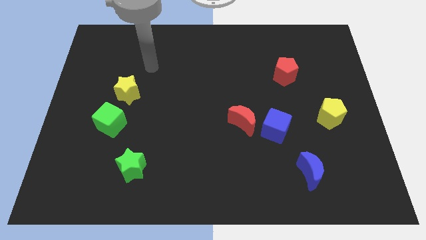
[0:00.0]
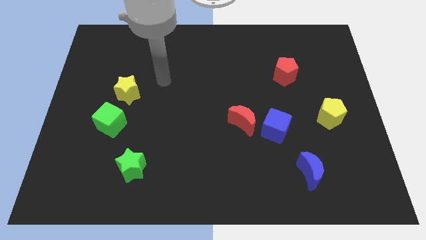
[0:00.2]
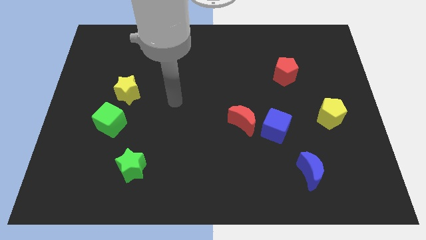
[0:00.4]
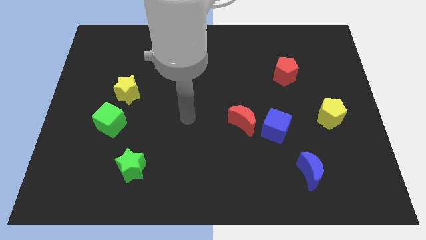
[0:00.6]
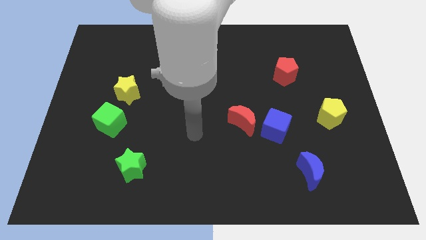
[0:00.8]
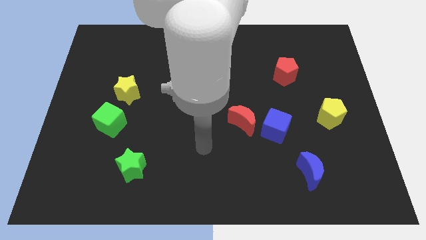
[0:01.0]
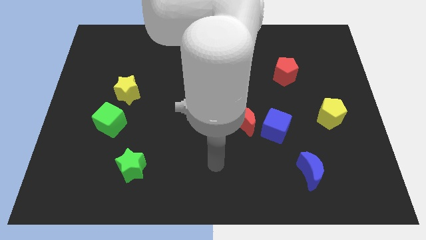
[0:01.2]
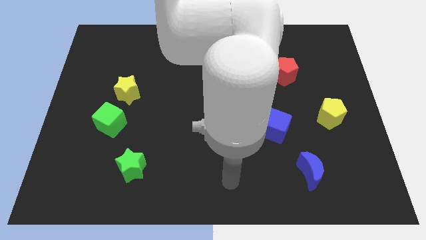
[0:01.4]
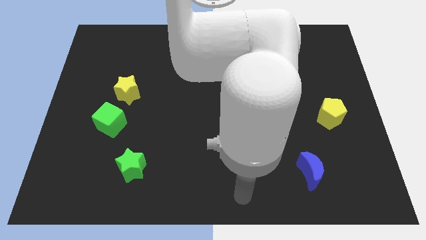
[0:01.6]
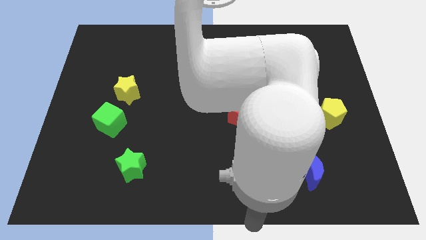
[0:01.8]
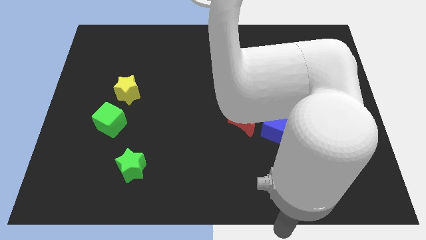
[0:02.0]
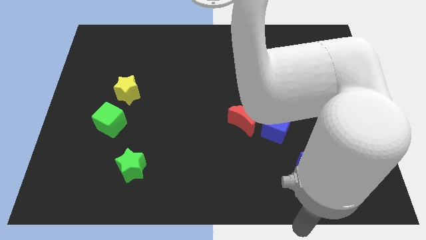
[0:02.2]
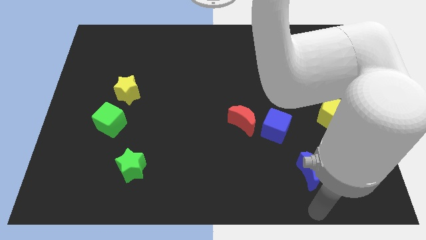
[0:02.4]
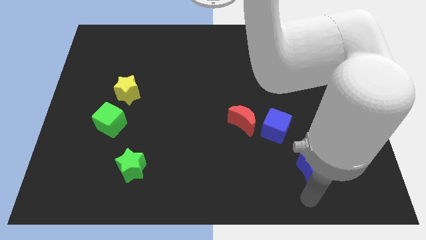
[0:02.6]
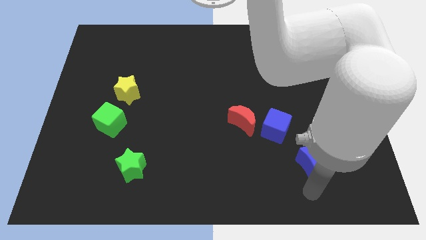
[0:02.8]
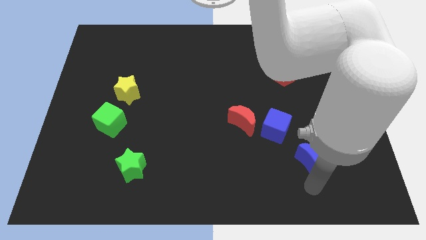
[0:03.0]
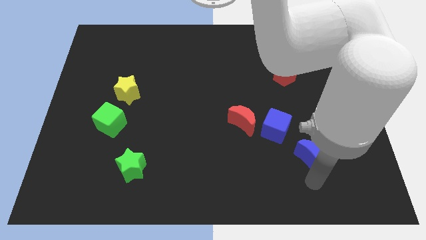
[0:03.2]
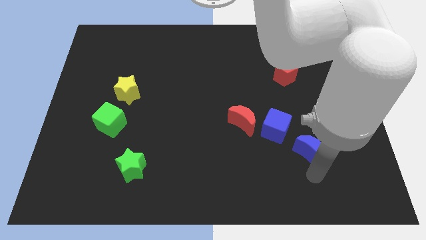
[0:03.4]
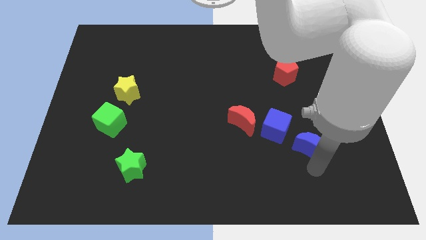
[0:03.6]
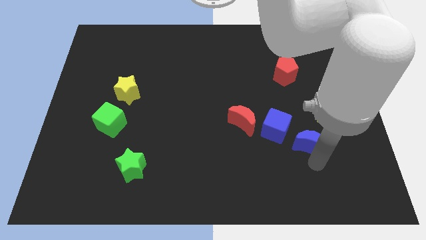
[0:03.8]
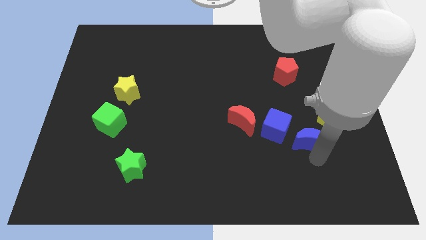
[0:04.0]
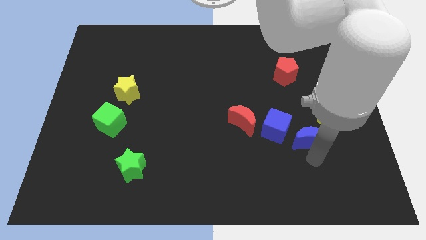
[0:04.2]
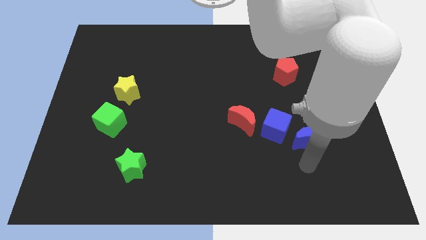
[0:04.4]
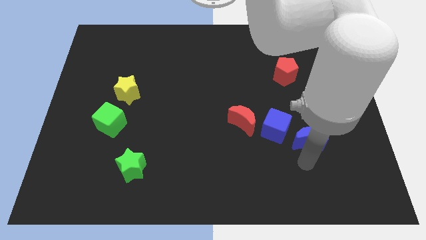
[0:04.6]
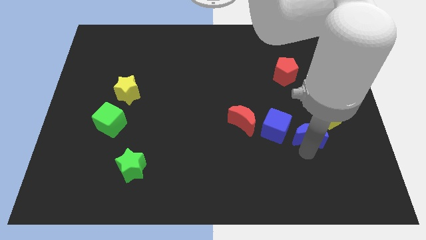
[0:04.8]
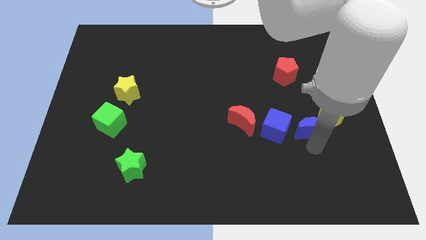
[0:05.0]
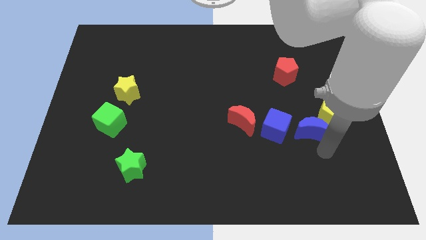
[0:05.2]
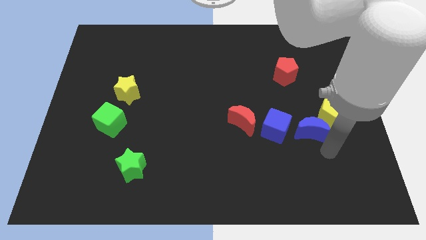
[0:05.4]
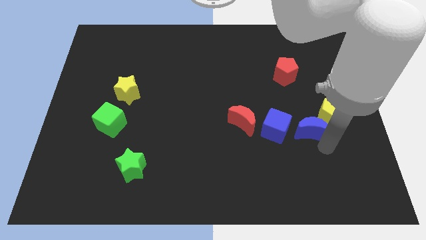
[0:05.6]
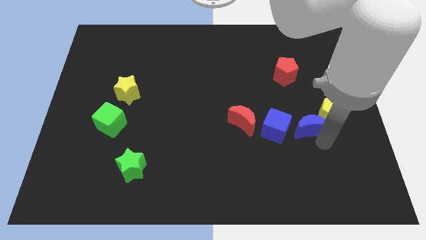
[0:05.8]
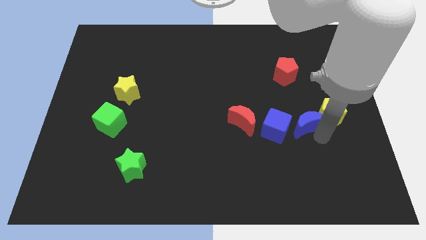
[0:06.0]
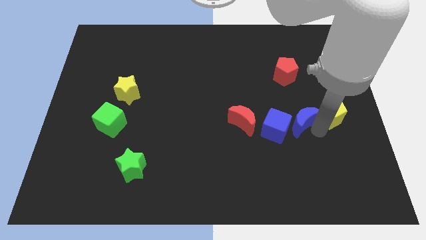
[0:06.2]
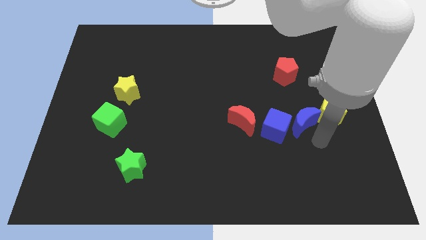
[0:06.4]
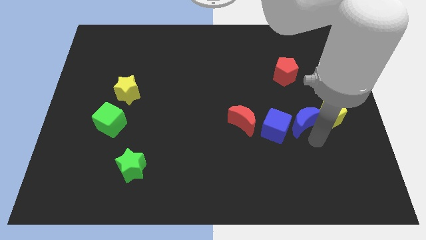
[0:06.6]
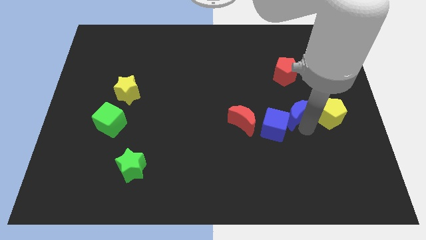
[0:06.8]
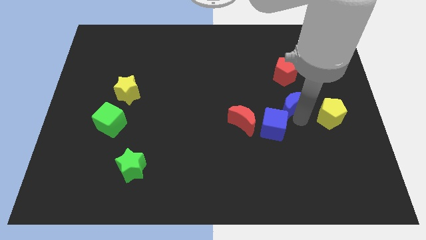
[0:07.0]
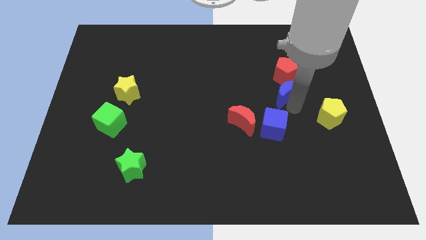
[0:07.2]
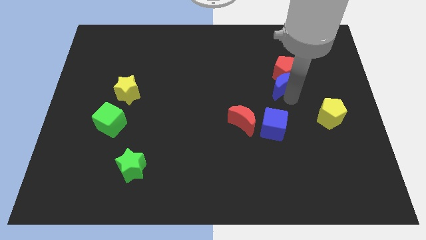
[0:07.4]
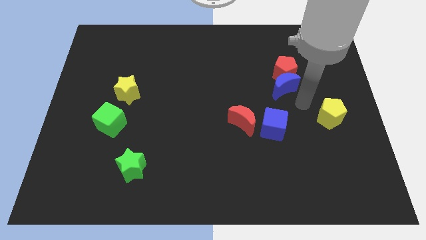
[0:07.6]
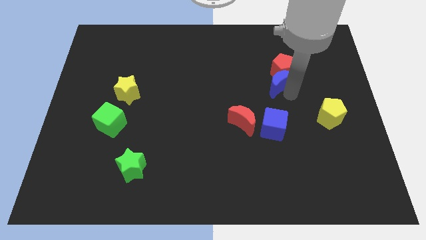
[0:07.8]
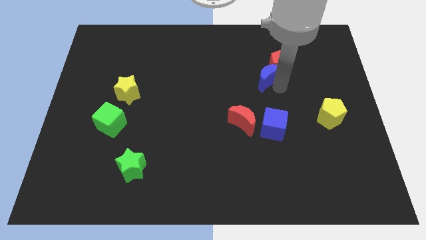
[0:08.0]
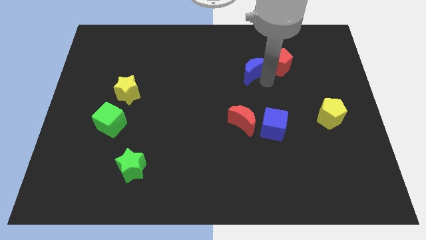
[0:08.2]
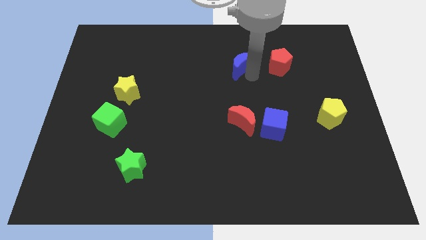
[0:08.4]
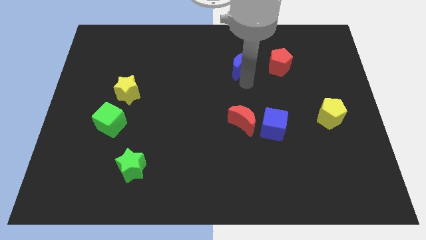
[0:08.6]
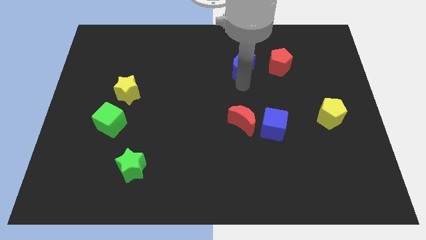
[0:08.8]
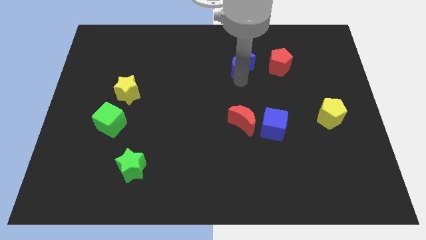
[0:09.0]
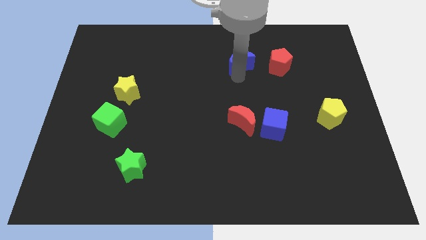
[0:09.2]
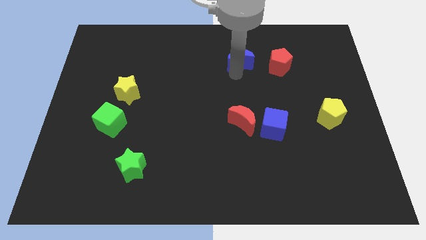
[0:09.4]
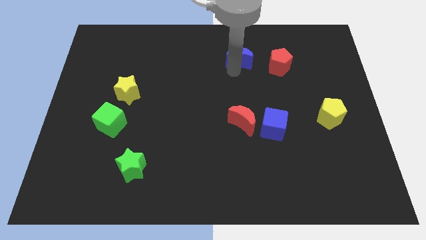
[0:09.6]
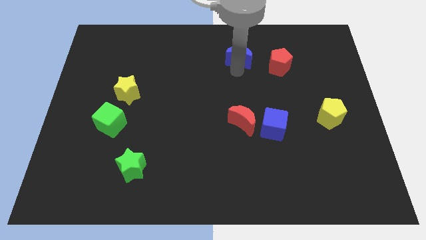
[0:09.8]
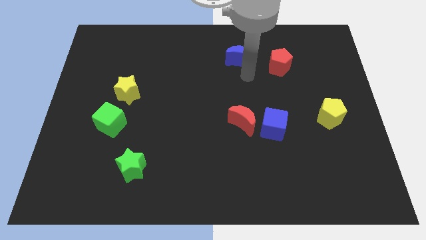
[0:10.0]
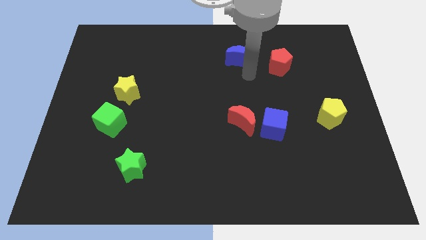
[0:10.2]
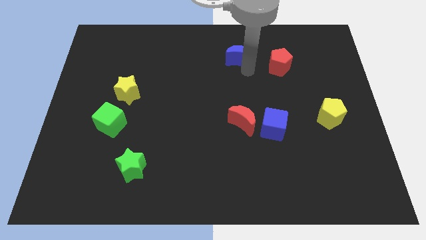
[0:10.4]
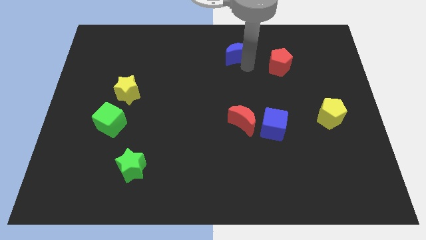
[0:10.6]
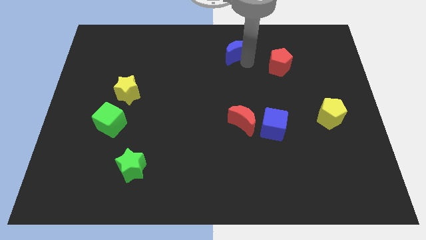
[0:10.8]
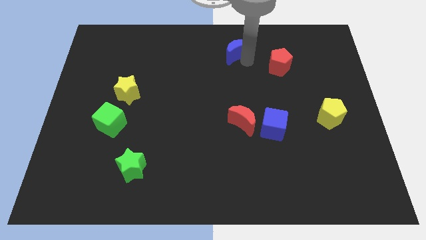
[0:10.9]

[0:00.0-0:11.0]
push the blue moon to the towards your base

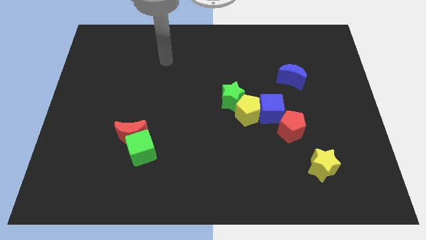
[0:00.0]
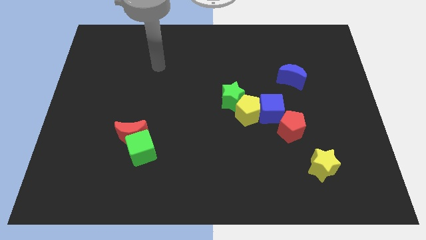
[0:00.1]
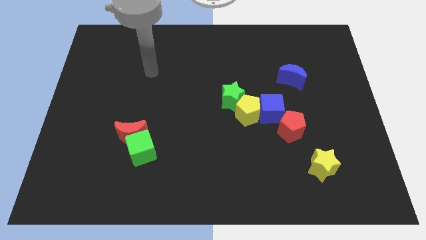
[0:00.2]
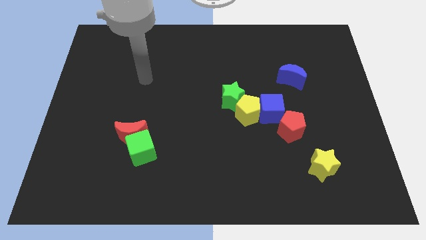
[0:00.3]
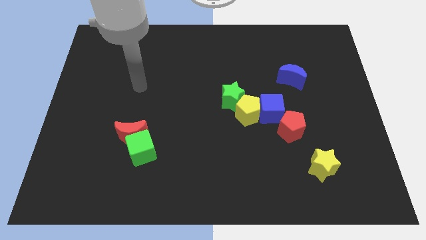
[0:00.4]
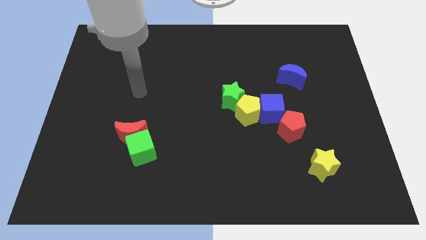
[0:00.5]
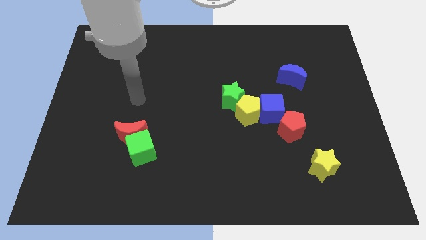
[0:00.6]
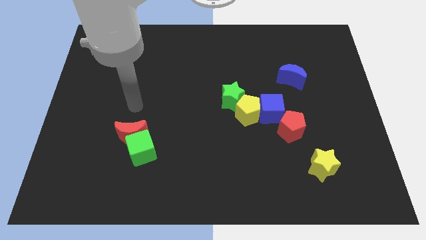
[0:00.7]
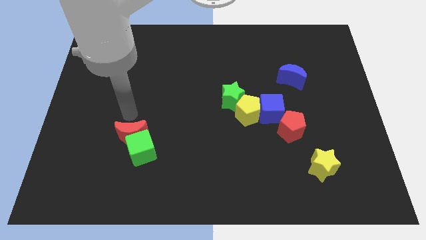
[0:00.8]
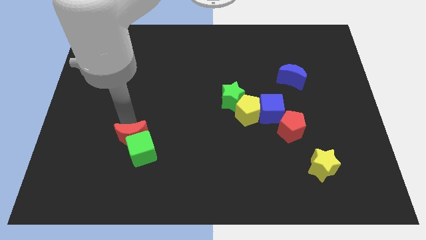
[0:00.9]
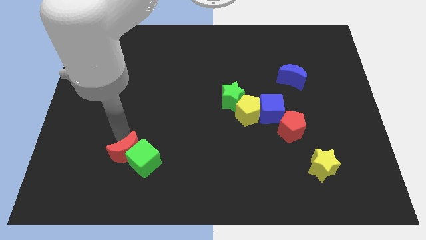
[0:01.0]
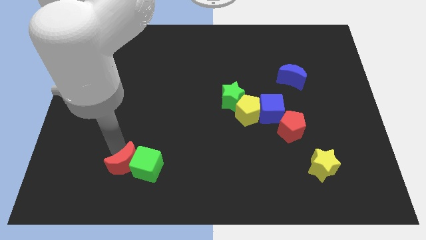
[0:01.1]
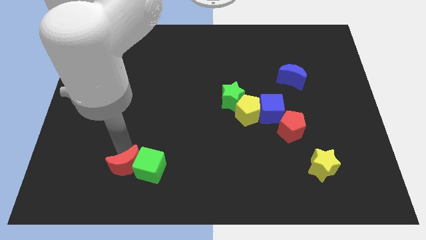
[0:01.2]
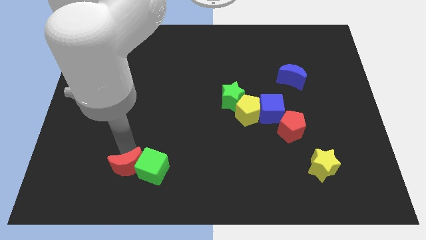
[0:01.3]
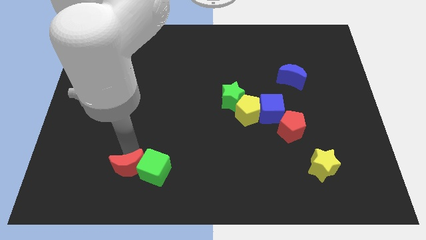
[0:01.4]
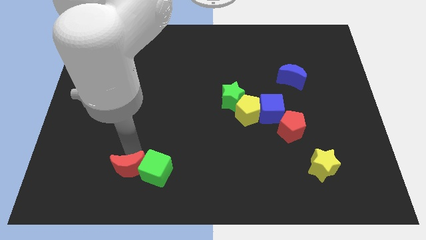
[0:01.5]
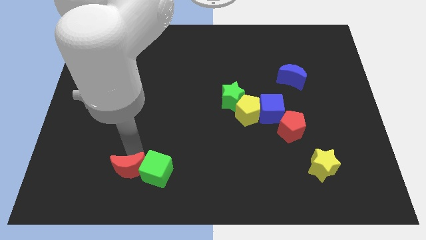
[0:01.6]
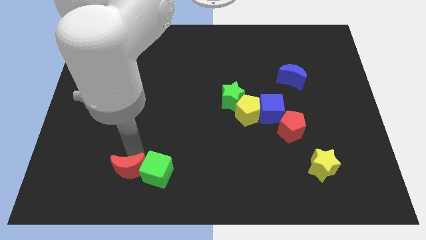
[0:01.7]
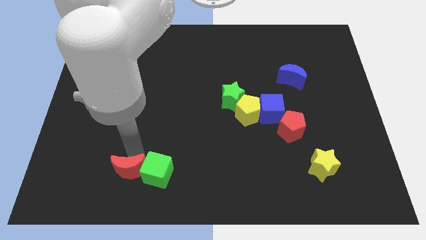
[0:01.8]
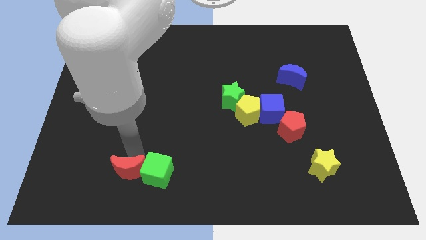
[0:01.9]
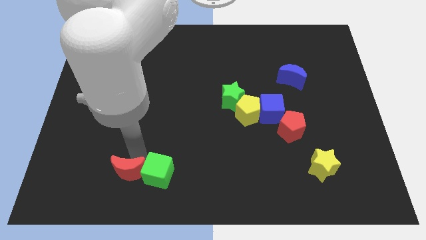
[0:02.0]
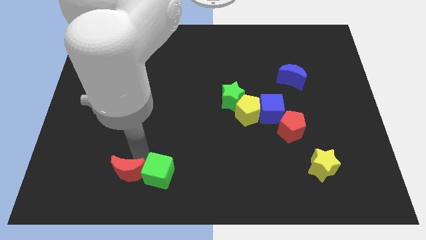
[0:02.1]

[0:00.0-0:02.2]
move the green cube to the bottom
